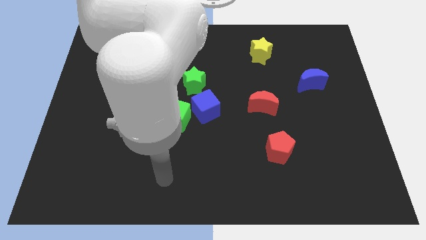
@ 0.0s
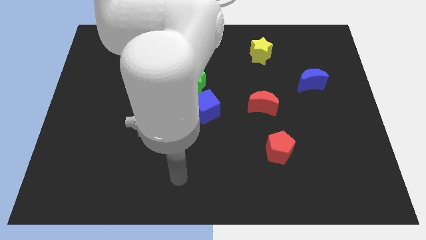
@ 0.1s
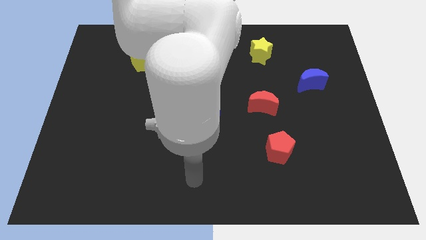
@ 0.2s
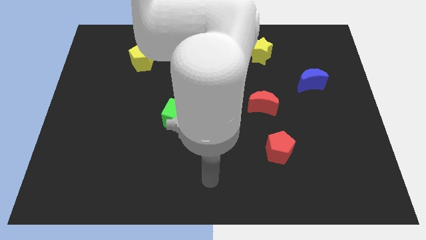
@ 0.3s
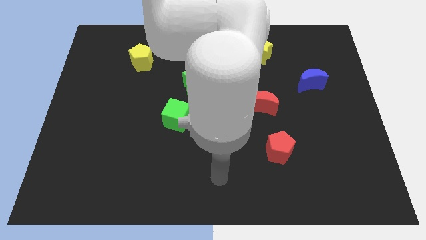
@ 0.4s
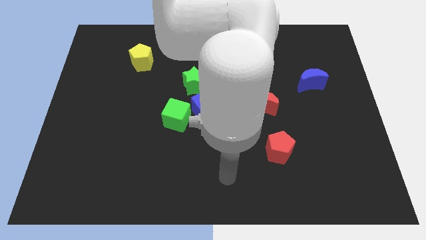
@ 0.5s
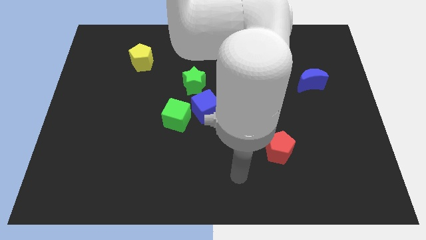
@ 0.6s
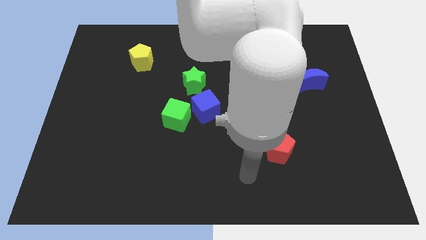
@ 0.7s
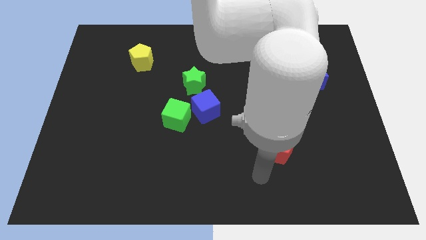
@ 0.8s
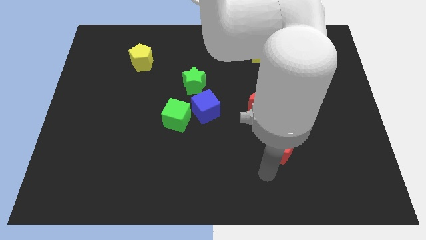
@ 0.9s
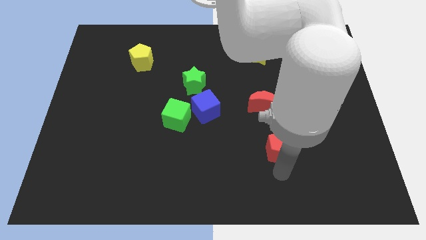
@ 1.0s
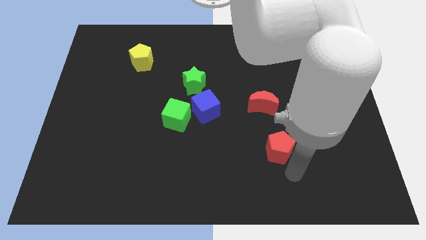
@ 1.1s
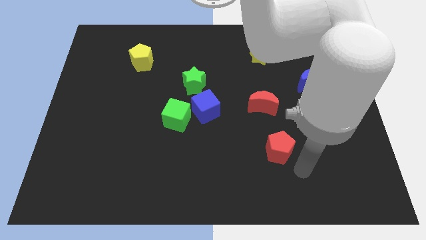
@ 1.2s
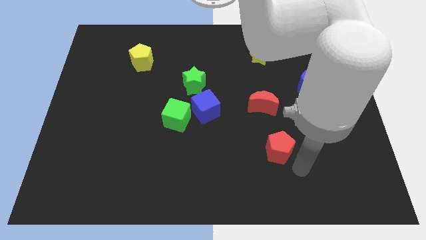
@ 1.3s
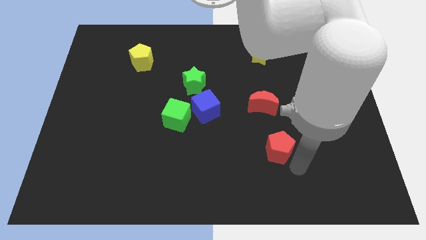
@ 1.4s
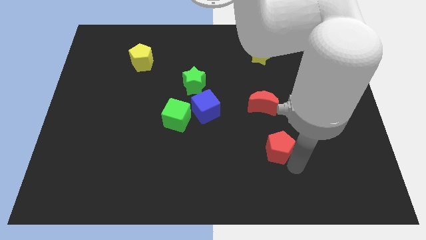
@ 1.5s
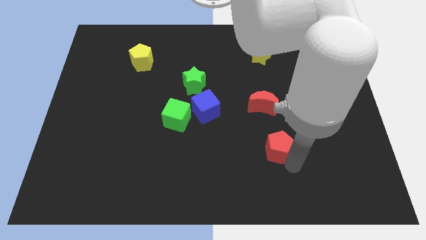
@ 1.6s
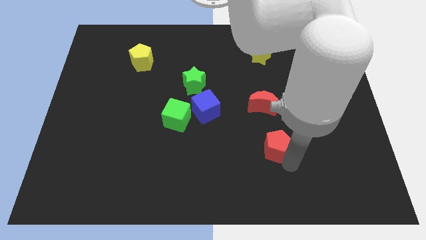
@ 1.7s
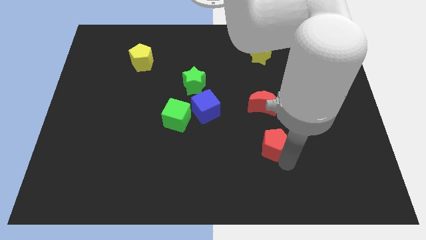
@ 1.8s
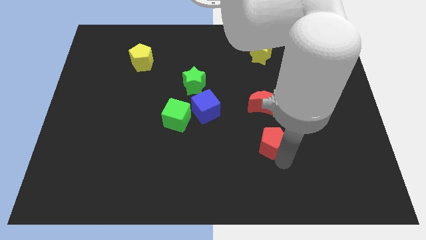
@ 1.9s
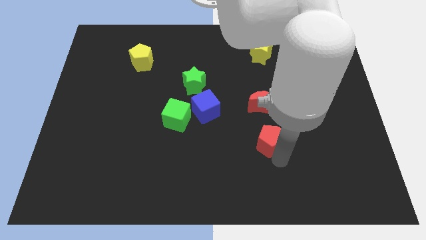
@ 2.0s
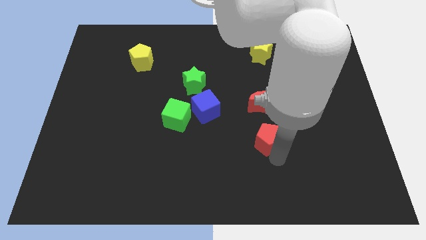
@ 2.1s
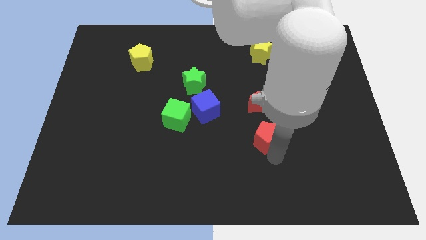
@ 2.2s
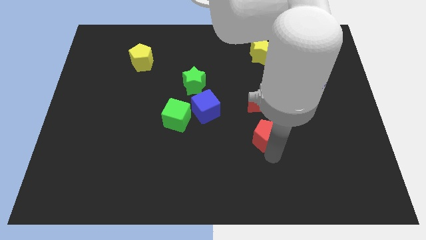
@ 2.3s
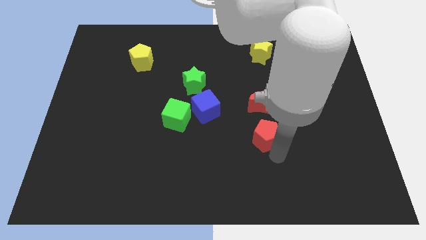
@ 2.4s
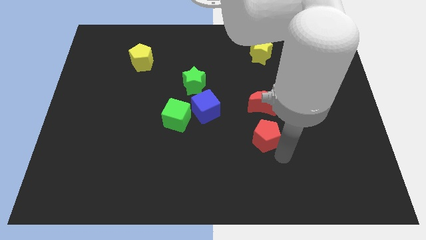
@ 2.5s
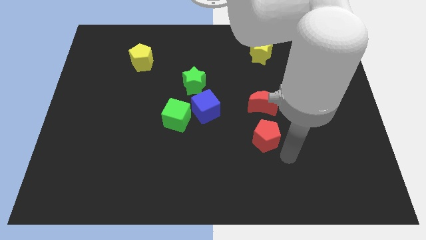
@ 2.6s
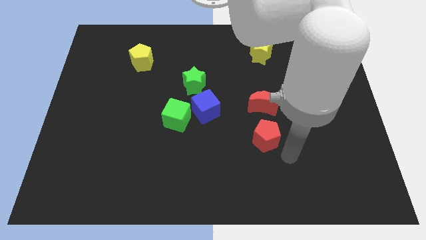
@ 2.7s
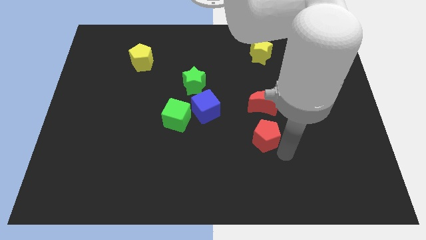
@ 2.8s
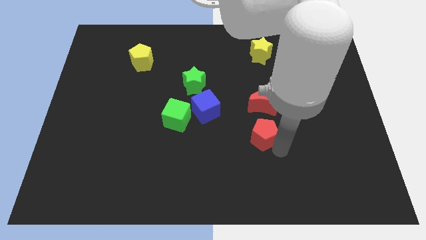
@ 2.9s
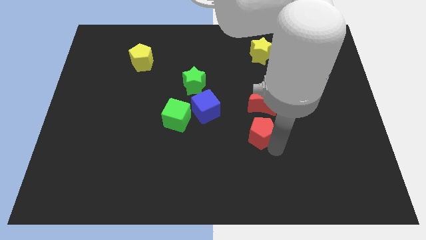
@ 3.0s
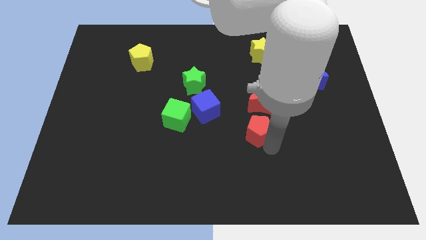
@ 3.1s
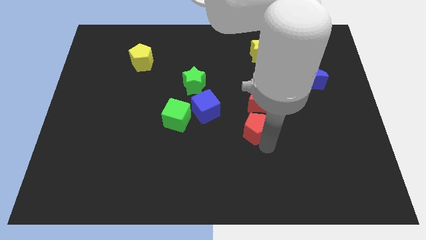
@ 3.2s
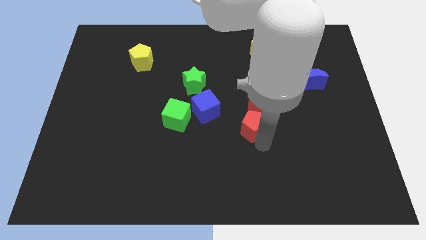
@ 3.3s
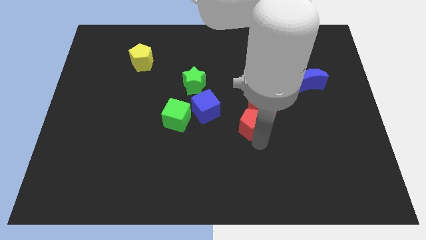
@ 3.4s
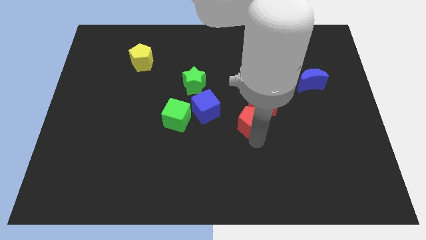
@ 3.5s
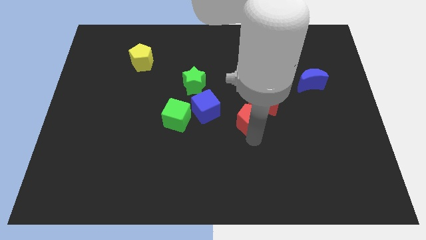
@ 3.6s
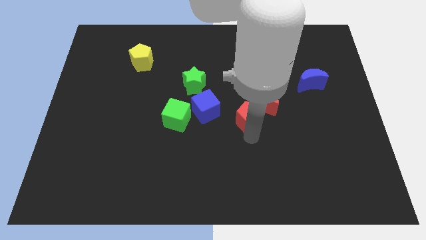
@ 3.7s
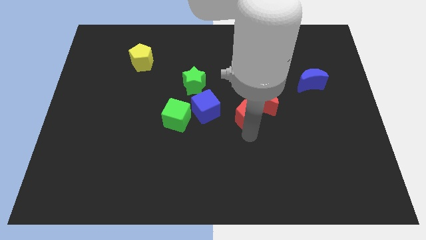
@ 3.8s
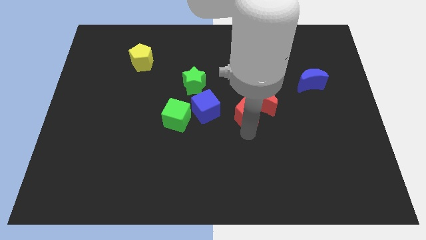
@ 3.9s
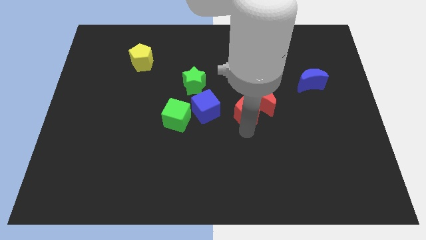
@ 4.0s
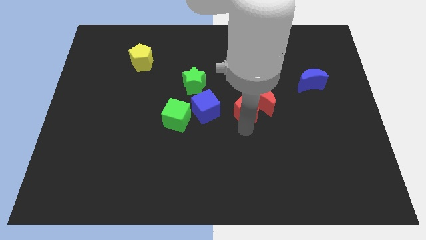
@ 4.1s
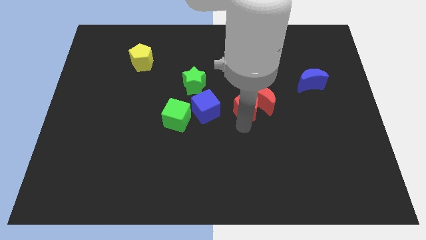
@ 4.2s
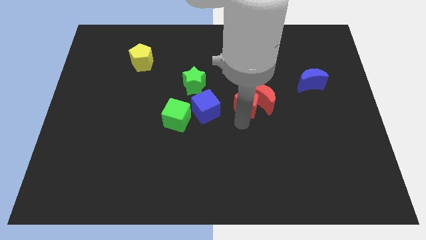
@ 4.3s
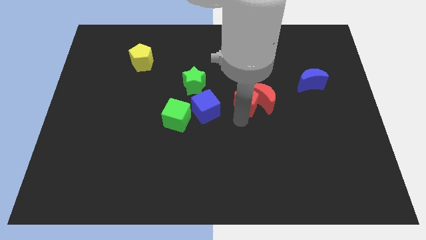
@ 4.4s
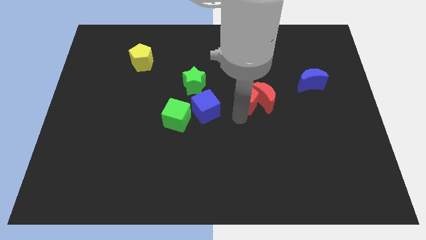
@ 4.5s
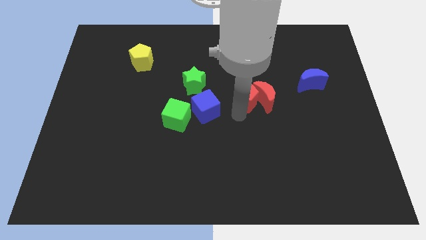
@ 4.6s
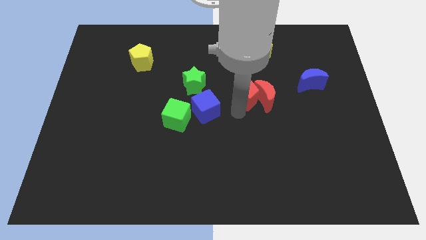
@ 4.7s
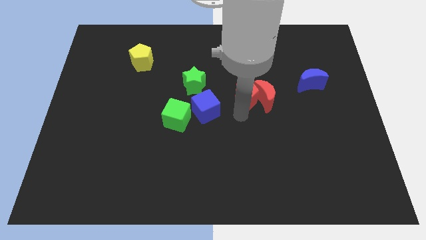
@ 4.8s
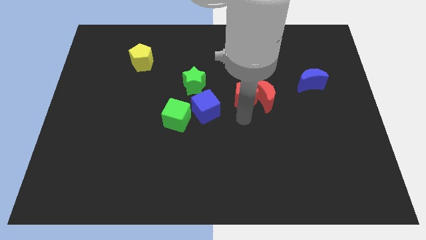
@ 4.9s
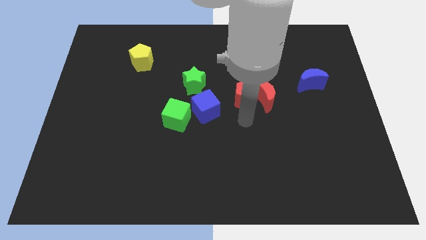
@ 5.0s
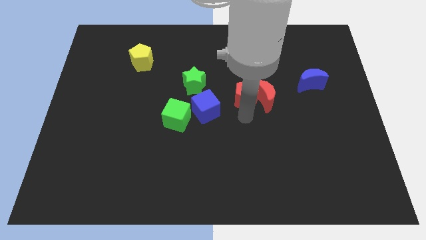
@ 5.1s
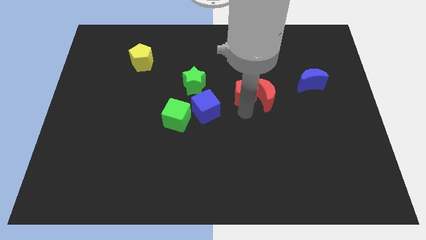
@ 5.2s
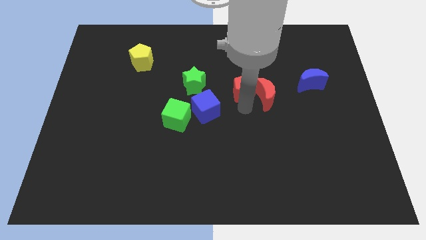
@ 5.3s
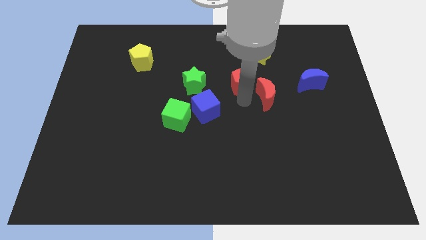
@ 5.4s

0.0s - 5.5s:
slide the red pentagon diagonally down and to the left of the yellow star

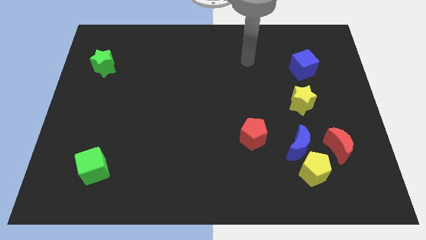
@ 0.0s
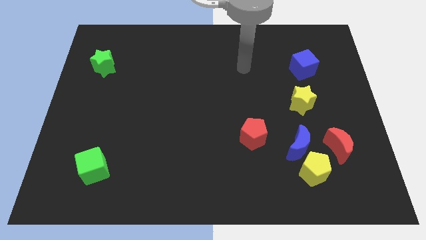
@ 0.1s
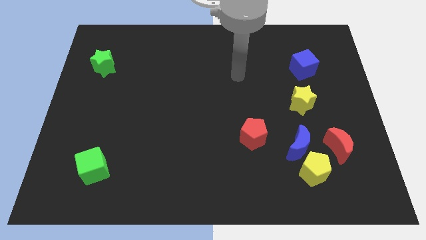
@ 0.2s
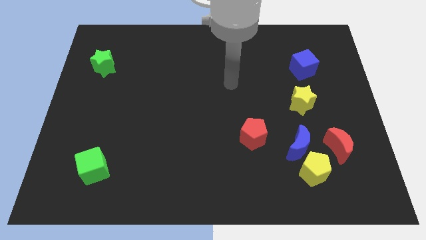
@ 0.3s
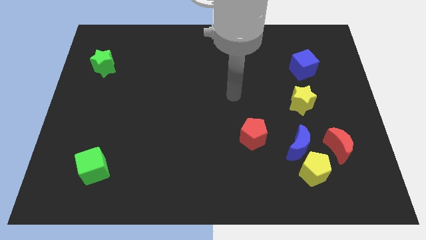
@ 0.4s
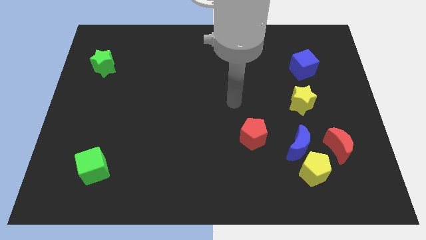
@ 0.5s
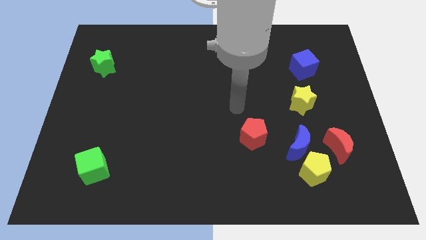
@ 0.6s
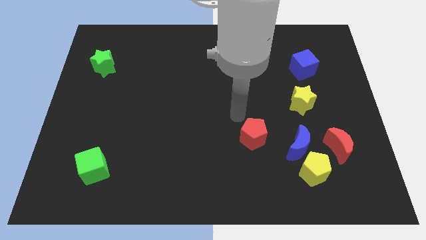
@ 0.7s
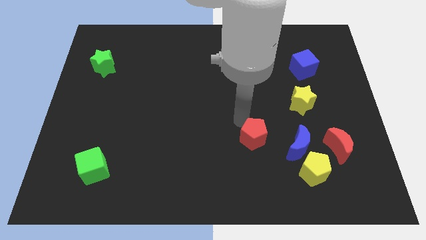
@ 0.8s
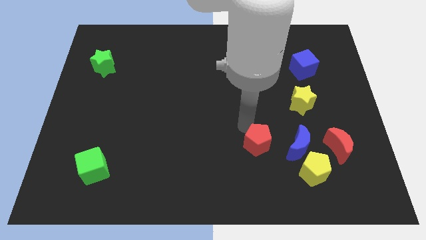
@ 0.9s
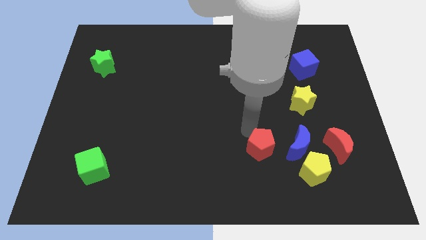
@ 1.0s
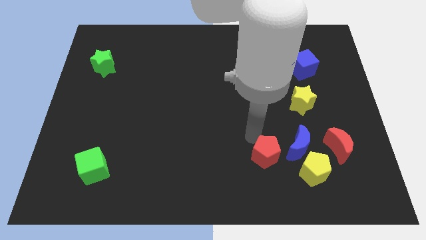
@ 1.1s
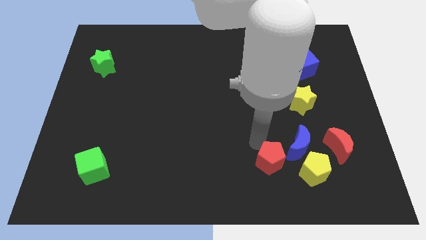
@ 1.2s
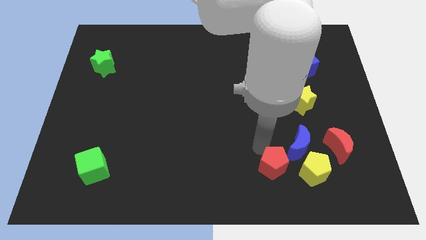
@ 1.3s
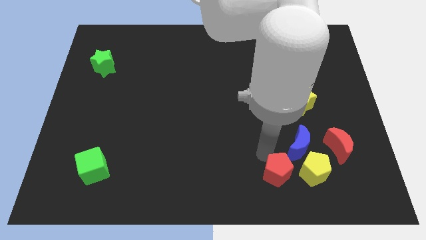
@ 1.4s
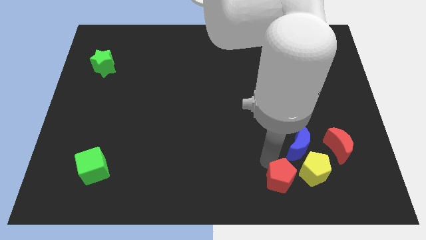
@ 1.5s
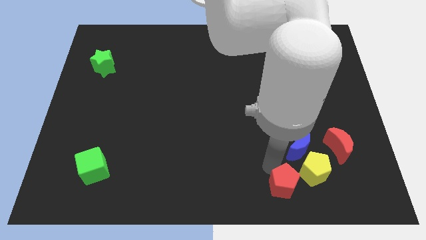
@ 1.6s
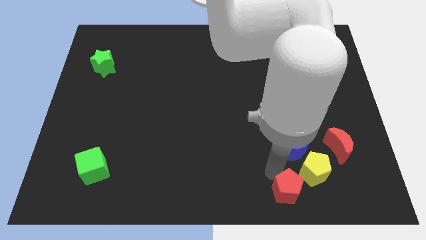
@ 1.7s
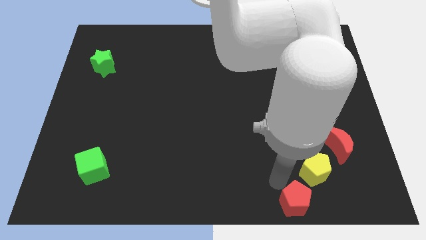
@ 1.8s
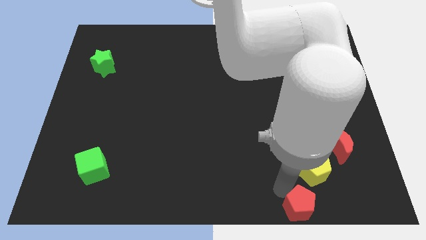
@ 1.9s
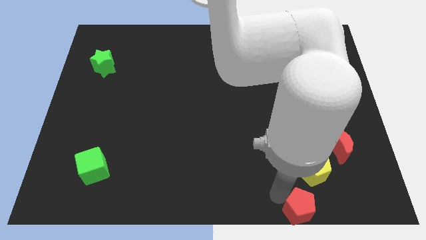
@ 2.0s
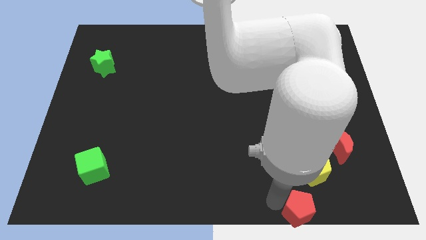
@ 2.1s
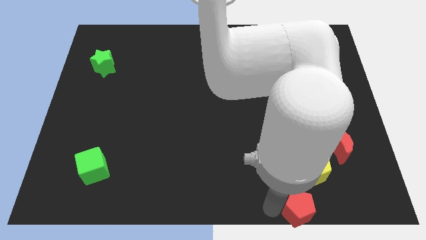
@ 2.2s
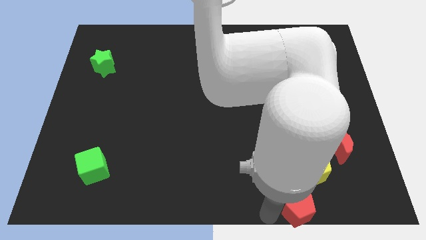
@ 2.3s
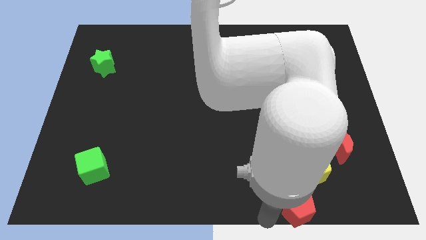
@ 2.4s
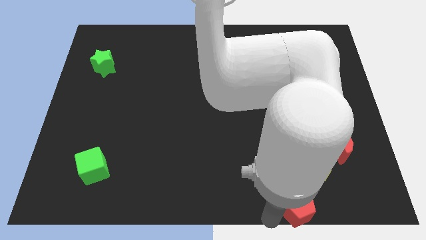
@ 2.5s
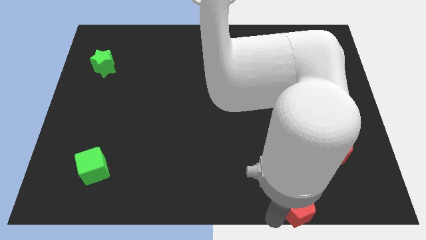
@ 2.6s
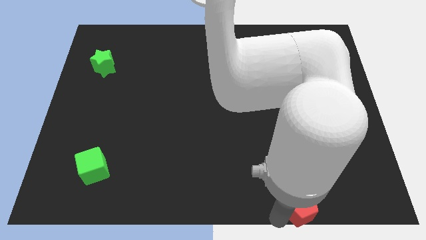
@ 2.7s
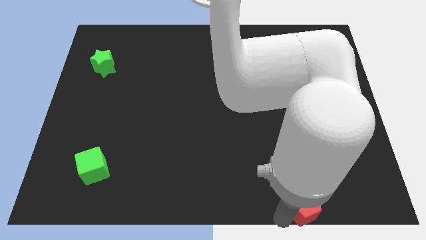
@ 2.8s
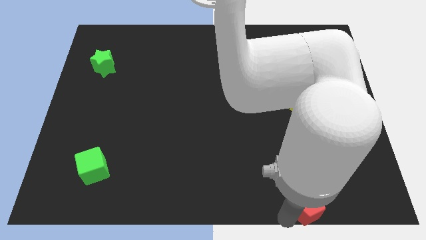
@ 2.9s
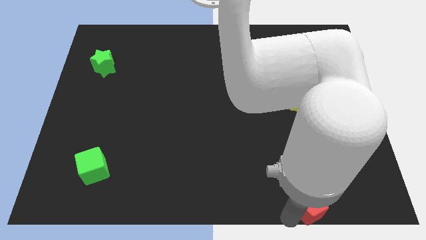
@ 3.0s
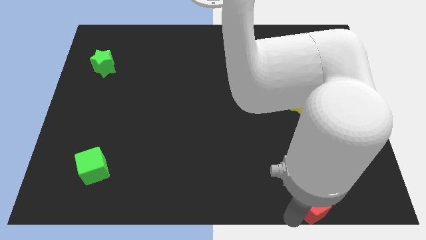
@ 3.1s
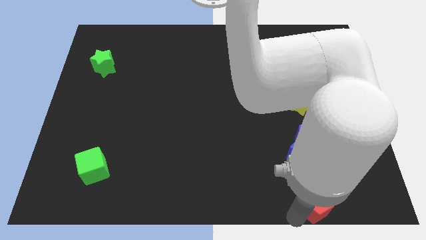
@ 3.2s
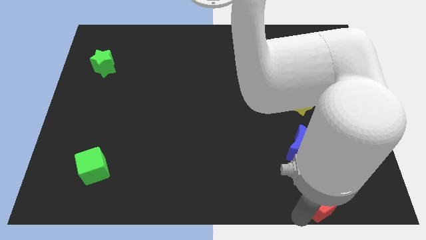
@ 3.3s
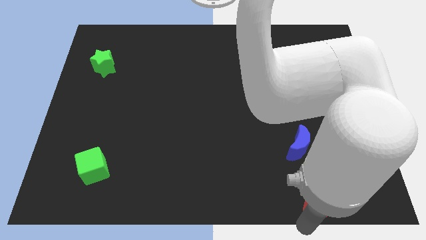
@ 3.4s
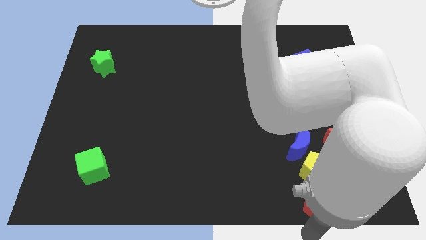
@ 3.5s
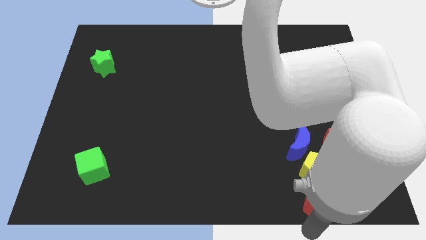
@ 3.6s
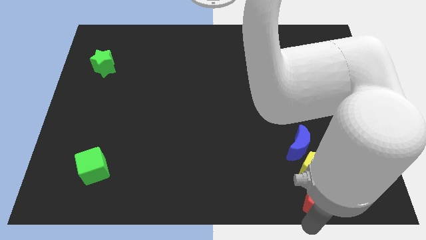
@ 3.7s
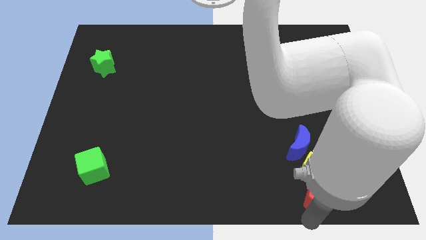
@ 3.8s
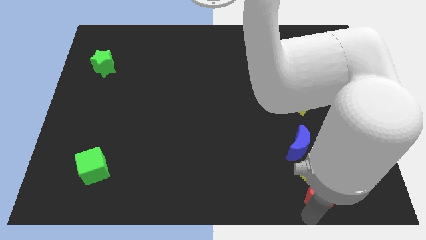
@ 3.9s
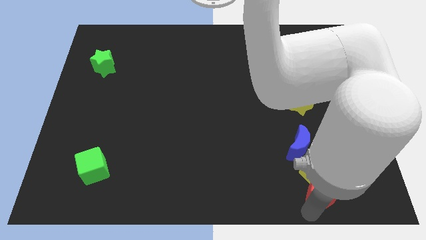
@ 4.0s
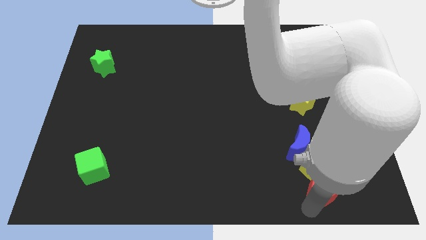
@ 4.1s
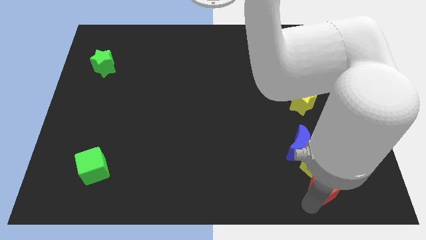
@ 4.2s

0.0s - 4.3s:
push the red pentagon to the bottom right side of the blue moon
